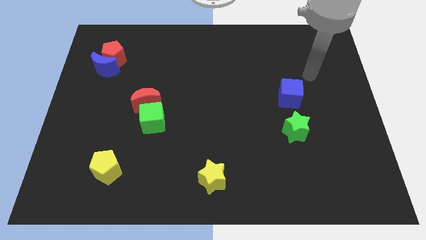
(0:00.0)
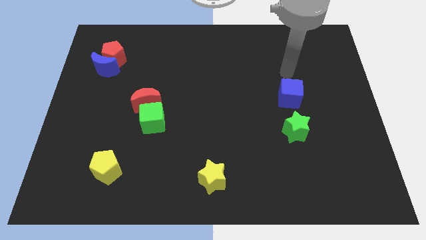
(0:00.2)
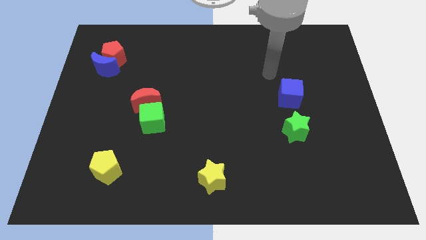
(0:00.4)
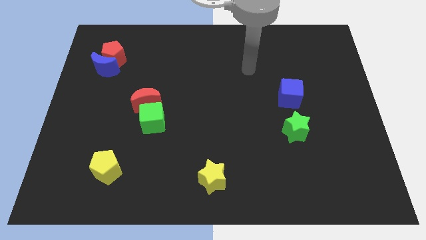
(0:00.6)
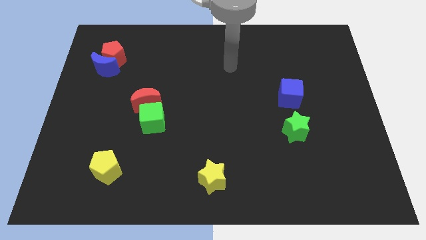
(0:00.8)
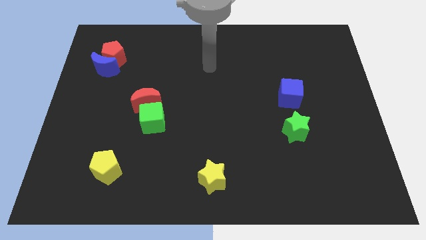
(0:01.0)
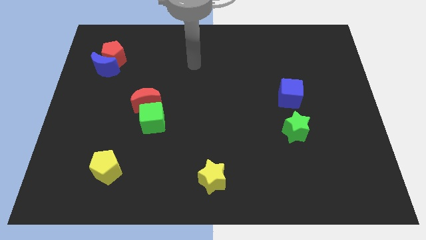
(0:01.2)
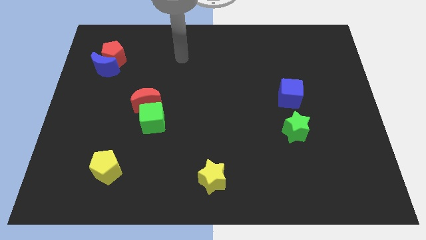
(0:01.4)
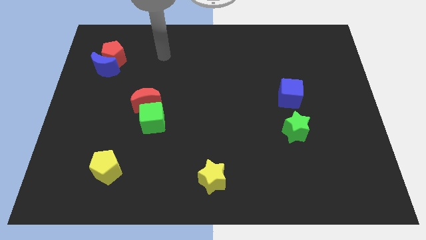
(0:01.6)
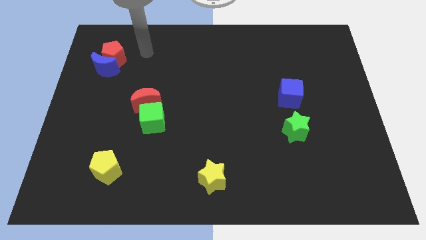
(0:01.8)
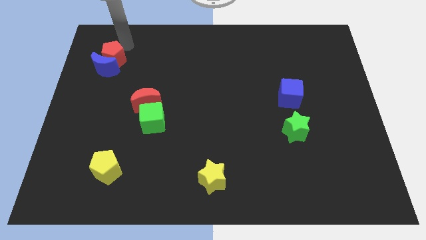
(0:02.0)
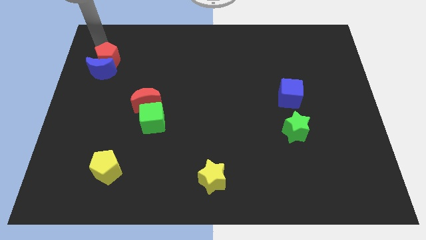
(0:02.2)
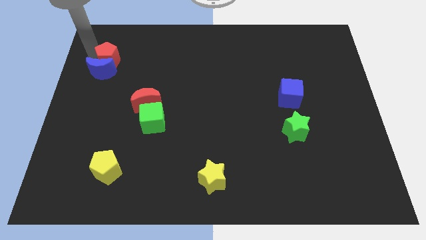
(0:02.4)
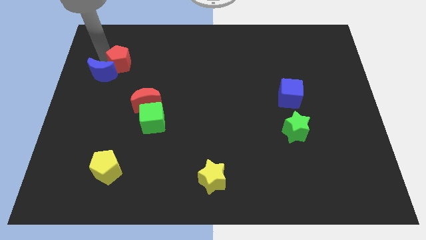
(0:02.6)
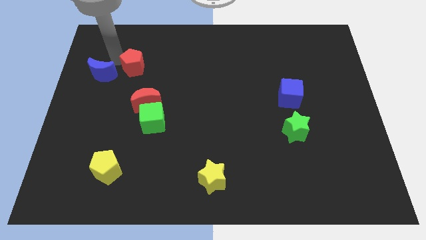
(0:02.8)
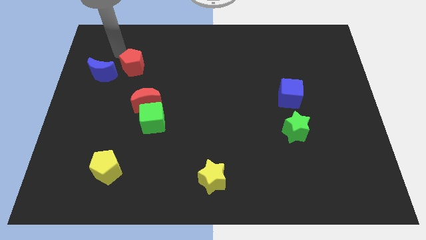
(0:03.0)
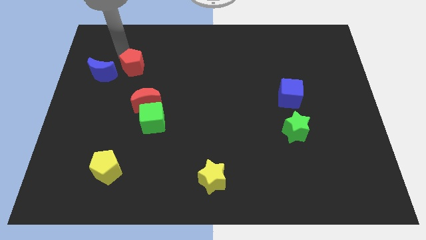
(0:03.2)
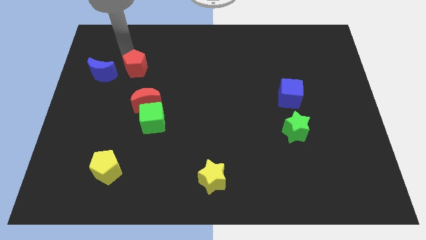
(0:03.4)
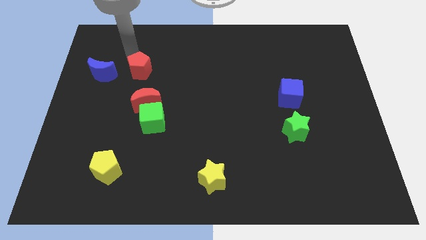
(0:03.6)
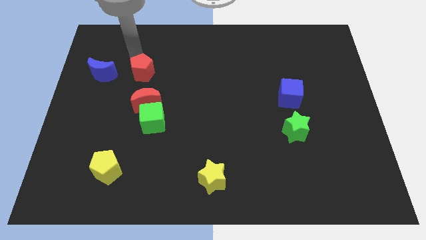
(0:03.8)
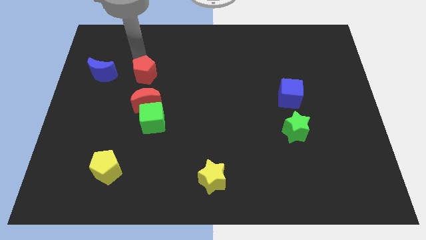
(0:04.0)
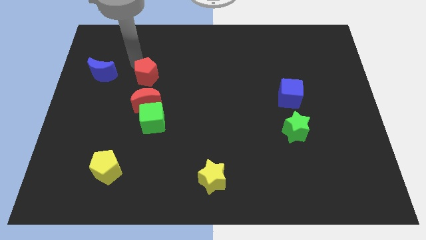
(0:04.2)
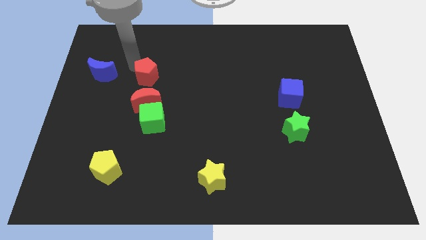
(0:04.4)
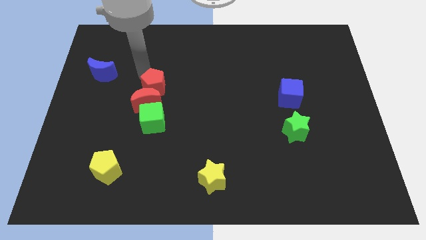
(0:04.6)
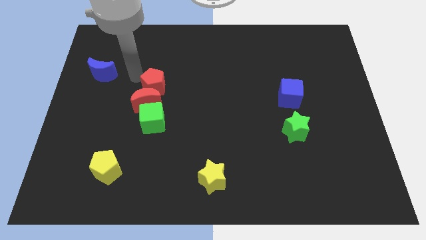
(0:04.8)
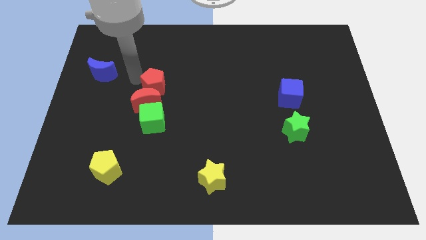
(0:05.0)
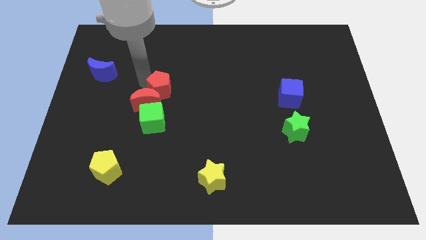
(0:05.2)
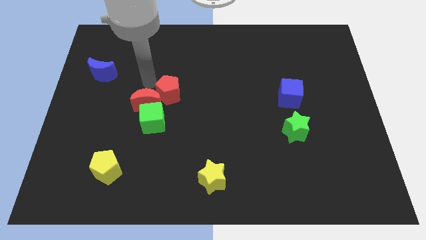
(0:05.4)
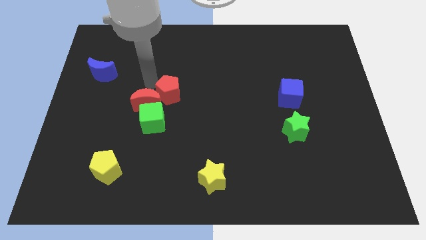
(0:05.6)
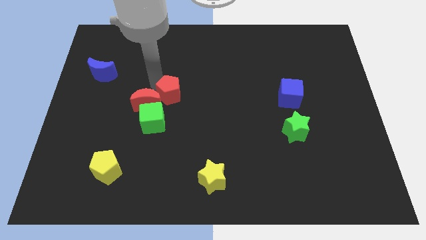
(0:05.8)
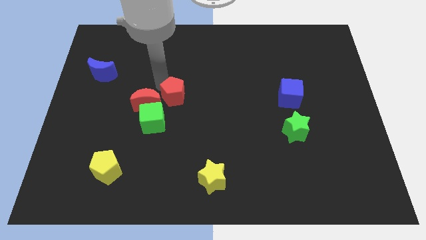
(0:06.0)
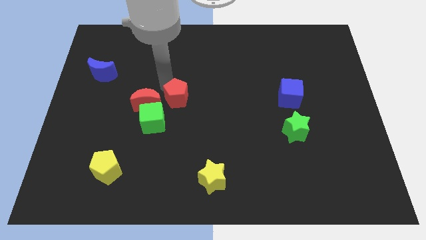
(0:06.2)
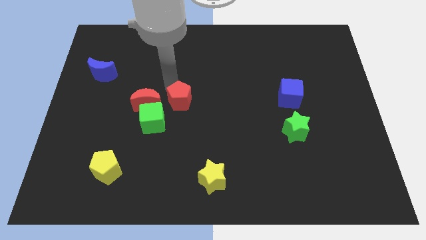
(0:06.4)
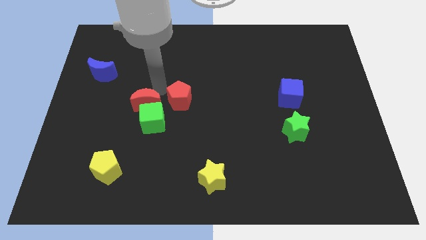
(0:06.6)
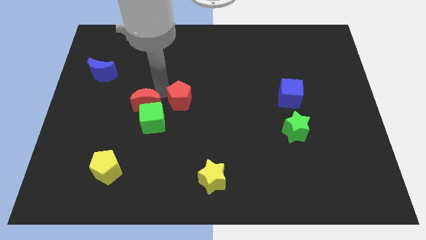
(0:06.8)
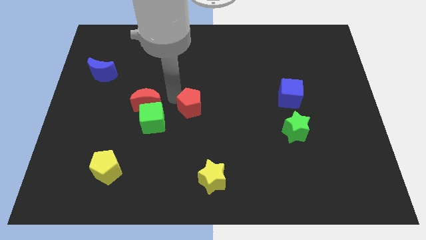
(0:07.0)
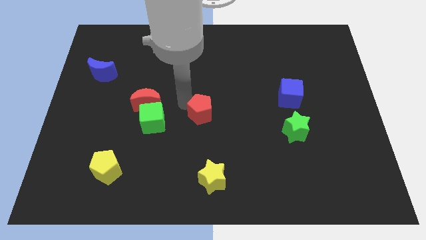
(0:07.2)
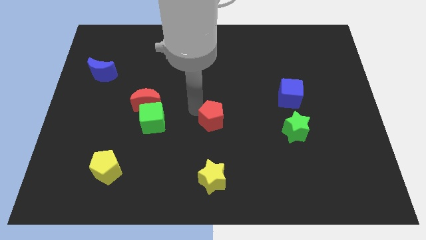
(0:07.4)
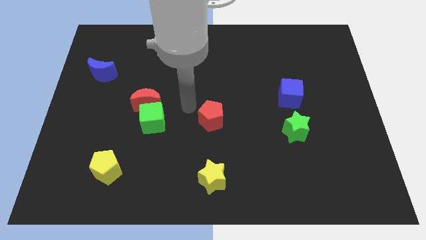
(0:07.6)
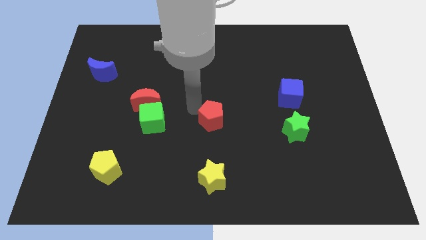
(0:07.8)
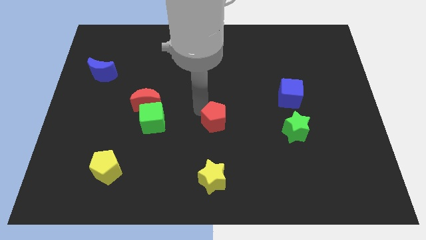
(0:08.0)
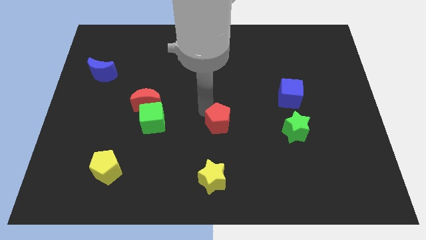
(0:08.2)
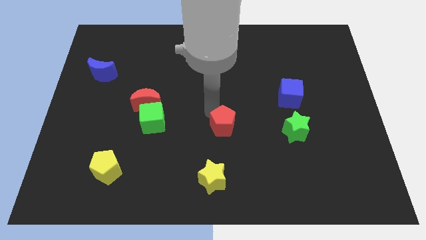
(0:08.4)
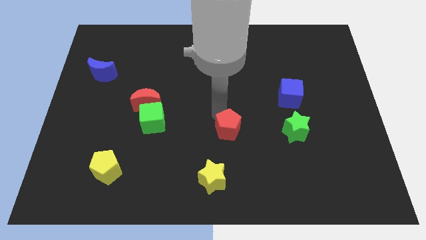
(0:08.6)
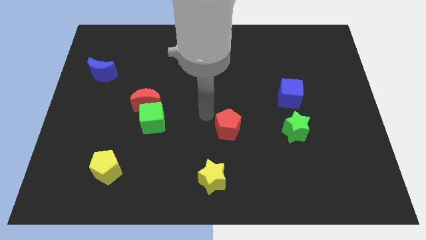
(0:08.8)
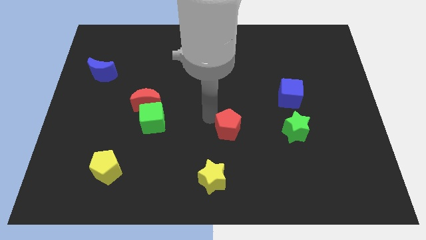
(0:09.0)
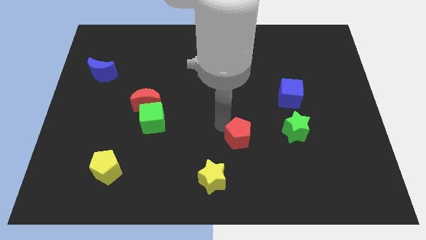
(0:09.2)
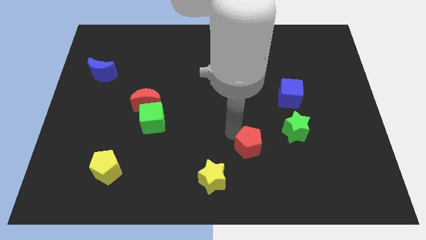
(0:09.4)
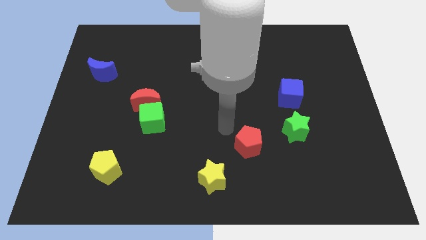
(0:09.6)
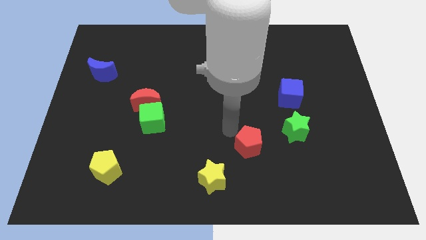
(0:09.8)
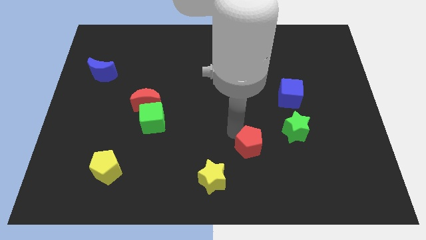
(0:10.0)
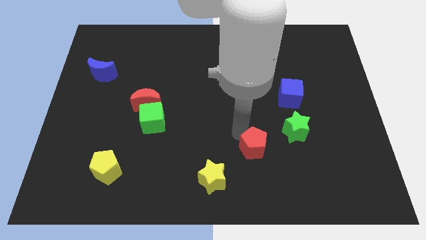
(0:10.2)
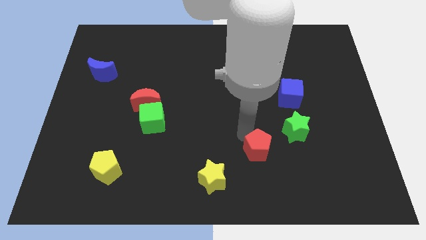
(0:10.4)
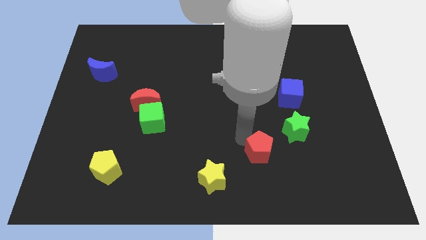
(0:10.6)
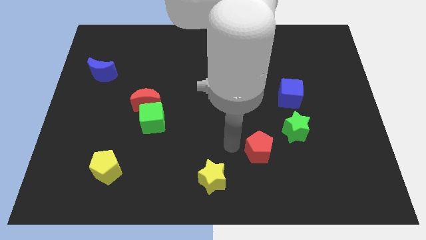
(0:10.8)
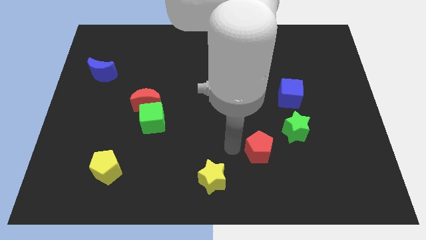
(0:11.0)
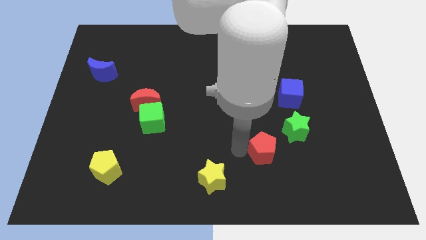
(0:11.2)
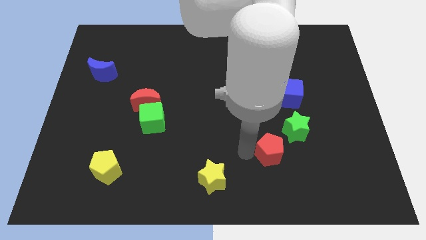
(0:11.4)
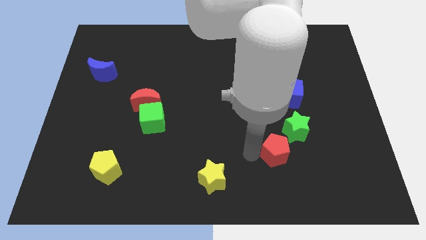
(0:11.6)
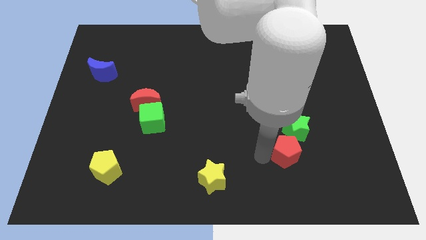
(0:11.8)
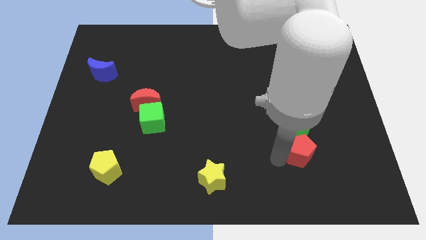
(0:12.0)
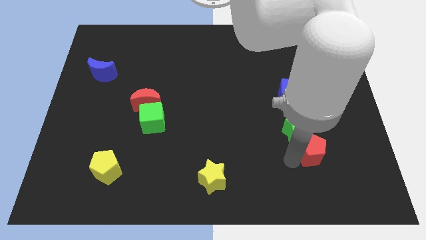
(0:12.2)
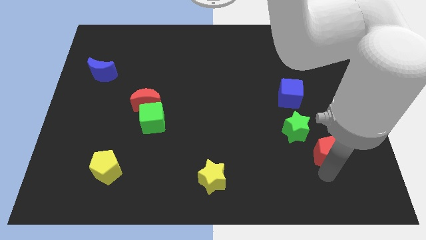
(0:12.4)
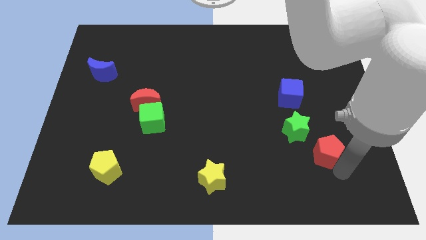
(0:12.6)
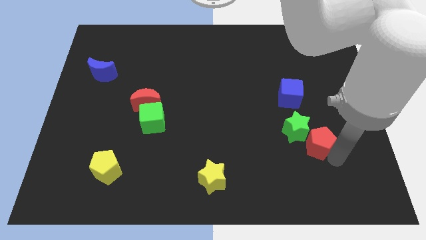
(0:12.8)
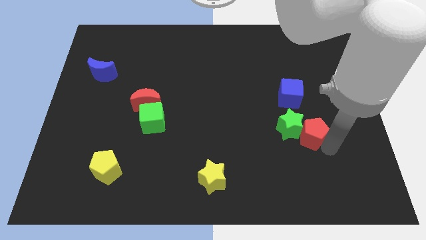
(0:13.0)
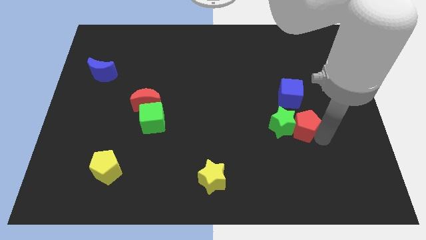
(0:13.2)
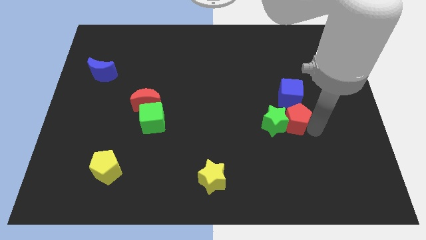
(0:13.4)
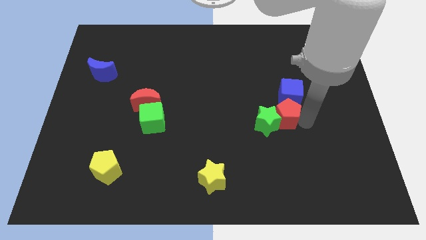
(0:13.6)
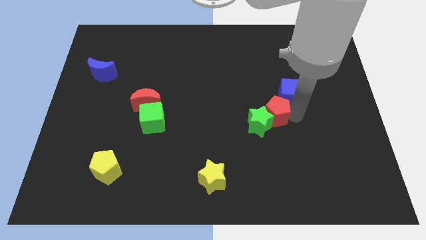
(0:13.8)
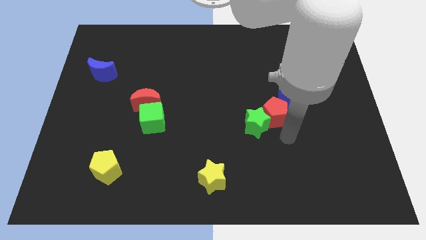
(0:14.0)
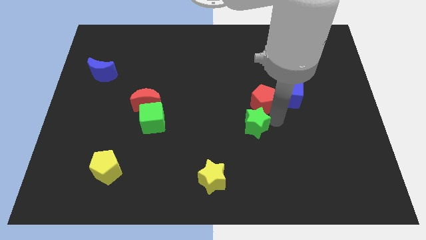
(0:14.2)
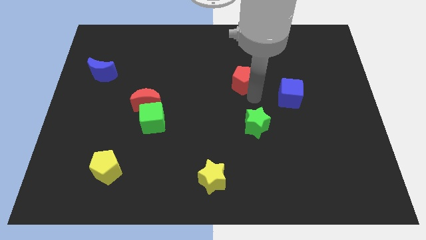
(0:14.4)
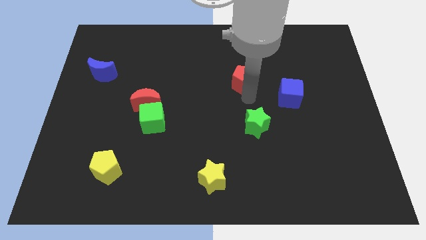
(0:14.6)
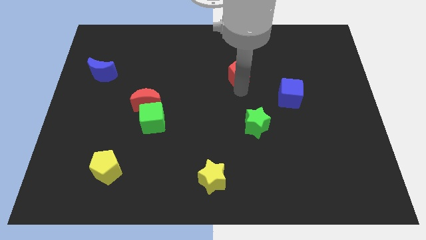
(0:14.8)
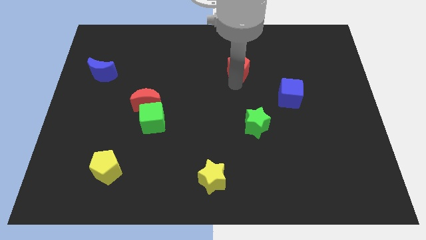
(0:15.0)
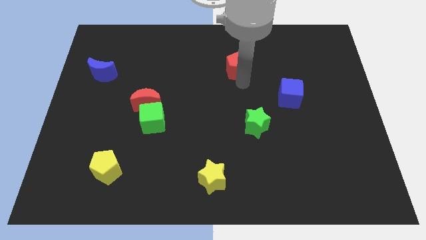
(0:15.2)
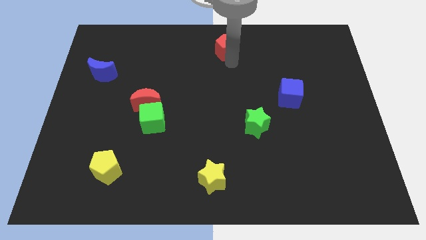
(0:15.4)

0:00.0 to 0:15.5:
put the red pentagon to the top side
